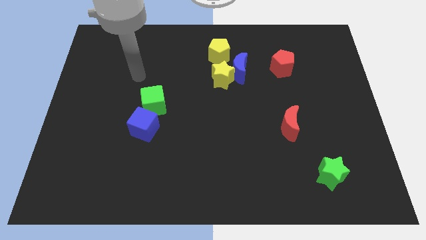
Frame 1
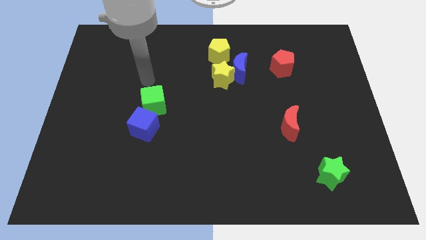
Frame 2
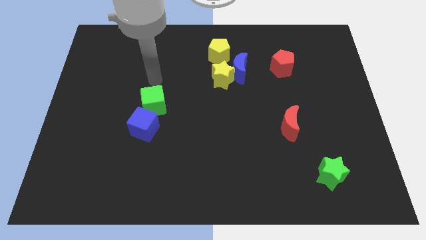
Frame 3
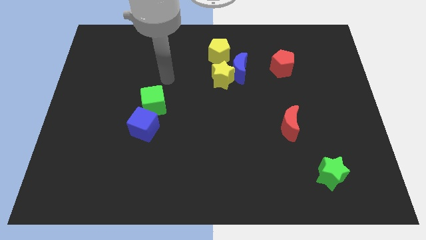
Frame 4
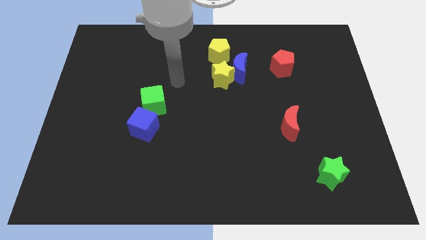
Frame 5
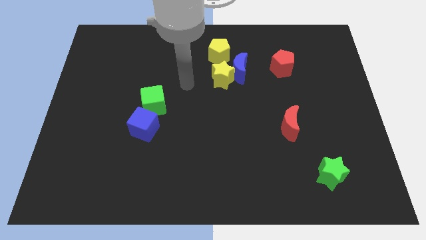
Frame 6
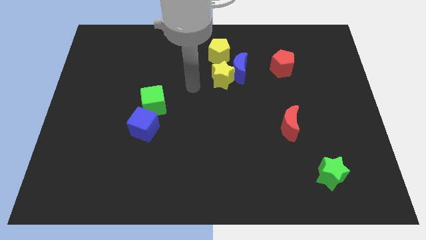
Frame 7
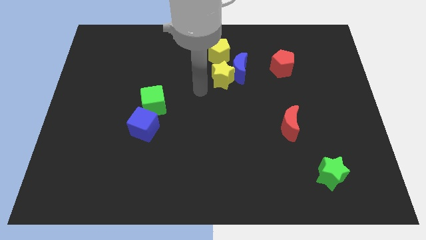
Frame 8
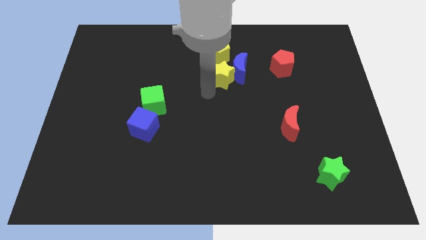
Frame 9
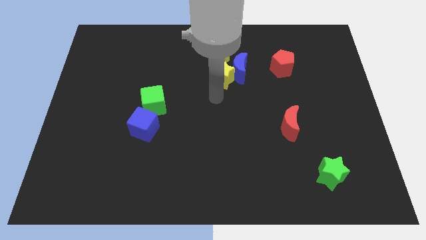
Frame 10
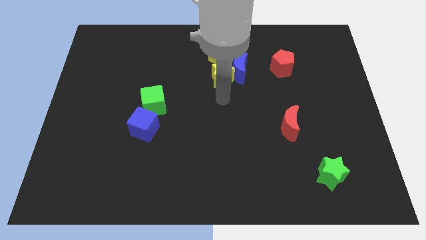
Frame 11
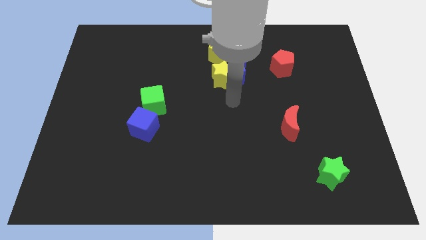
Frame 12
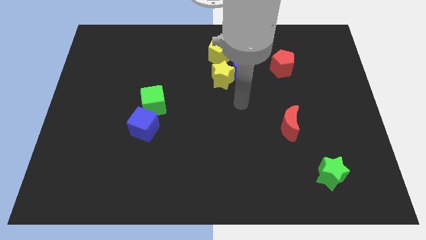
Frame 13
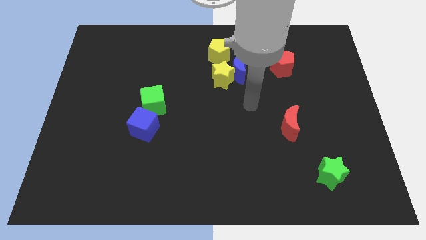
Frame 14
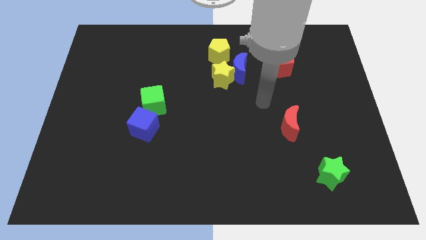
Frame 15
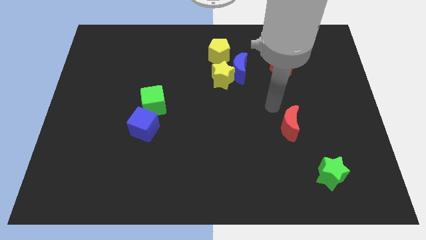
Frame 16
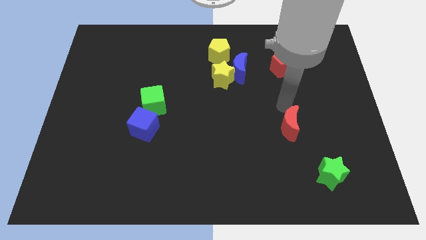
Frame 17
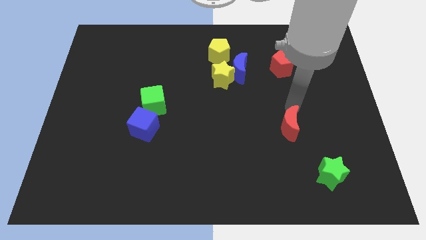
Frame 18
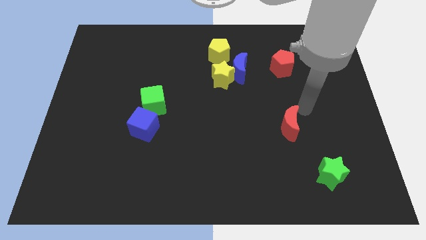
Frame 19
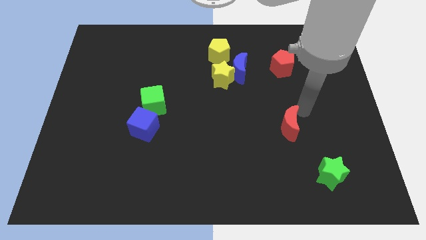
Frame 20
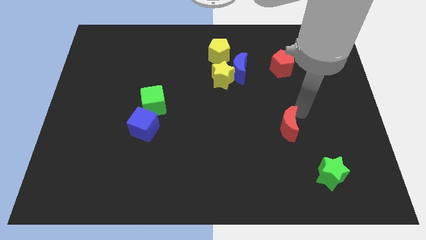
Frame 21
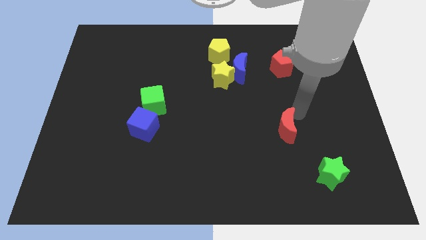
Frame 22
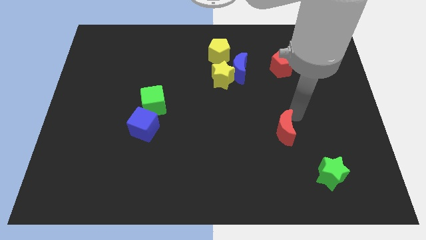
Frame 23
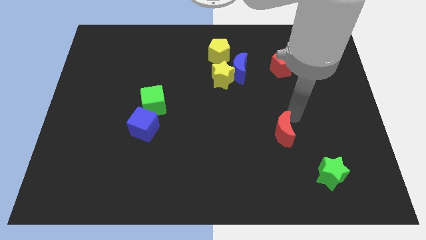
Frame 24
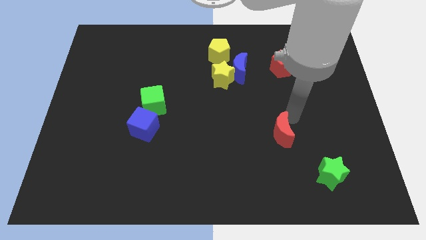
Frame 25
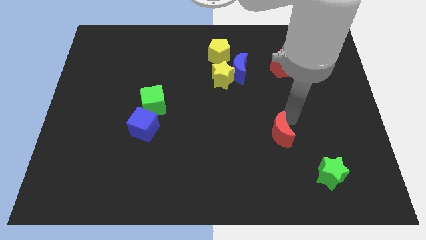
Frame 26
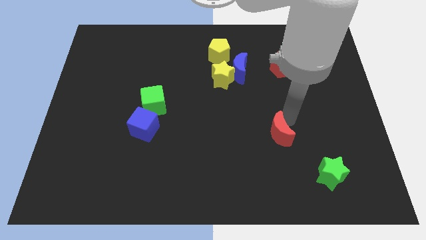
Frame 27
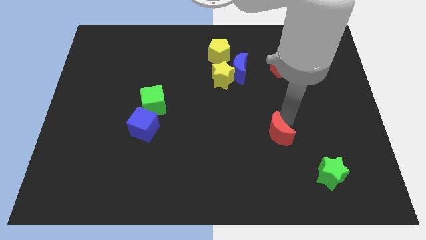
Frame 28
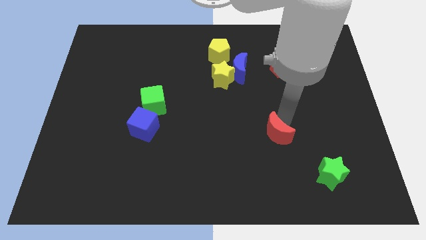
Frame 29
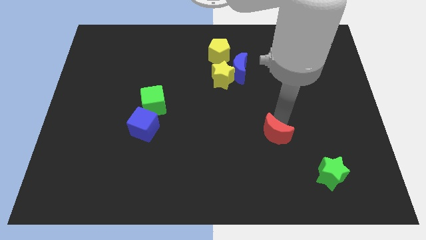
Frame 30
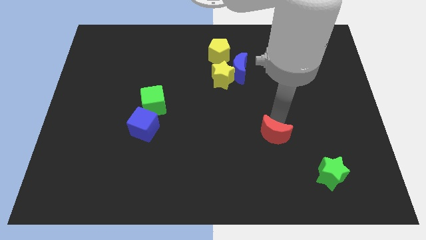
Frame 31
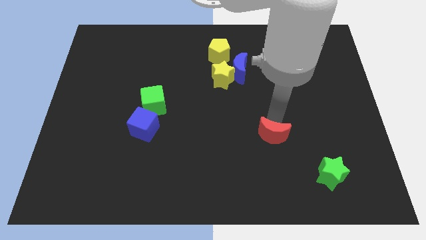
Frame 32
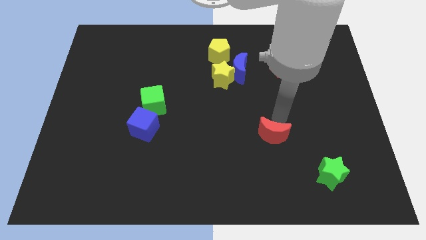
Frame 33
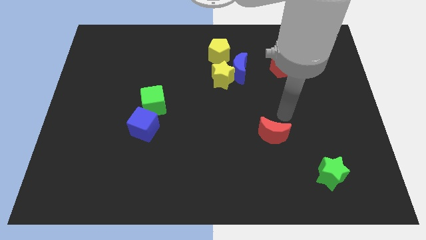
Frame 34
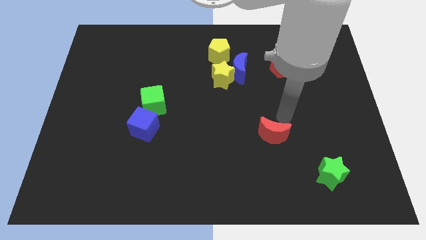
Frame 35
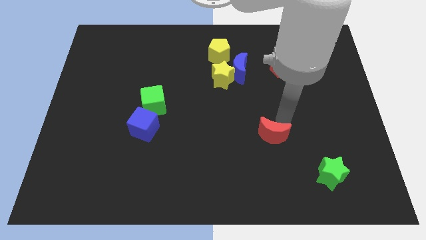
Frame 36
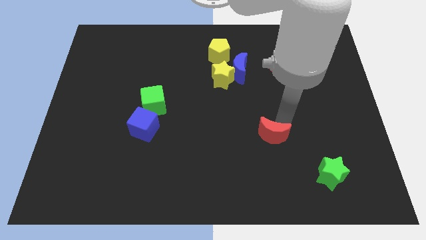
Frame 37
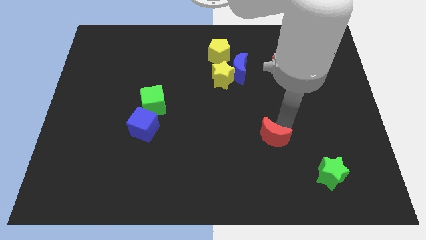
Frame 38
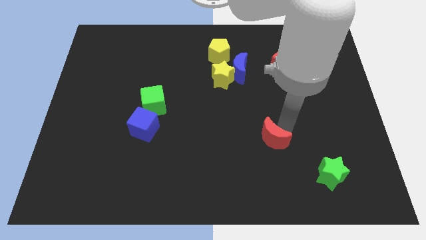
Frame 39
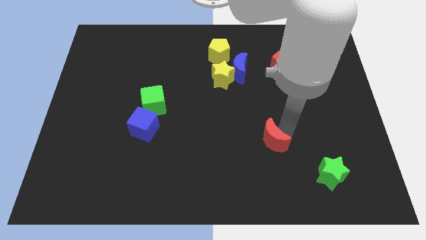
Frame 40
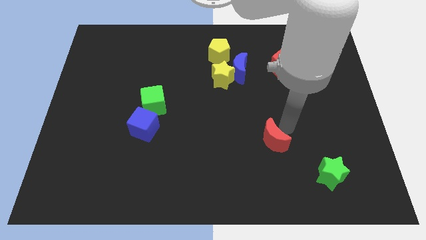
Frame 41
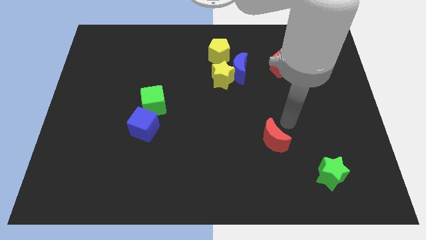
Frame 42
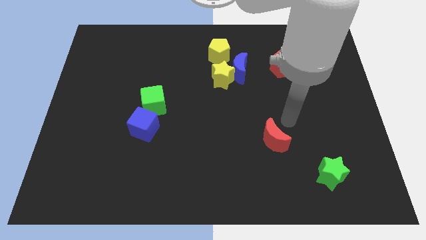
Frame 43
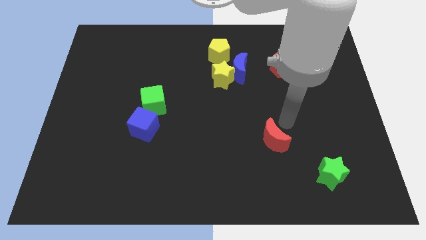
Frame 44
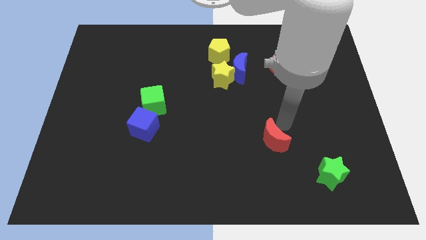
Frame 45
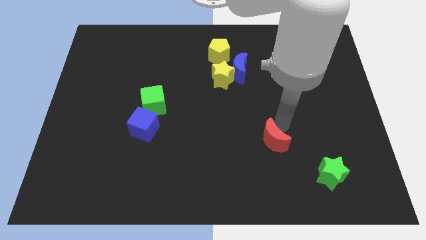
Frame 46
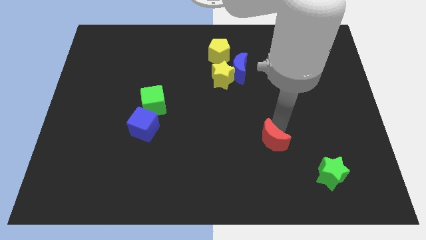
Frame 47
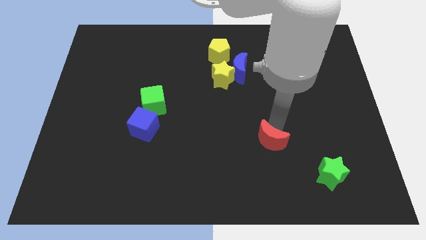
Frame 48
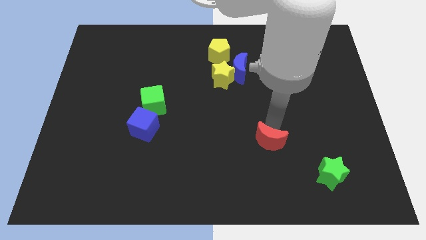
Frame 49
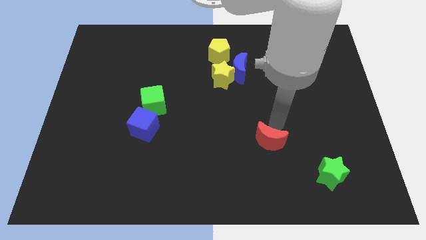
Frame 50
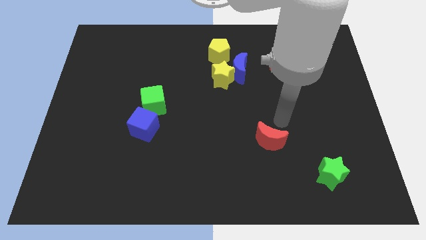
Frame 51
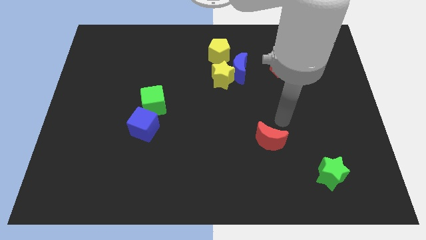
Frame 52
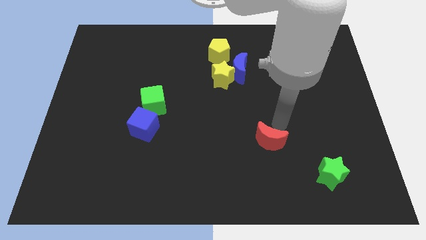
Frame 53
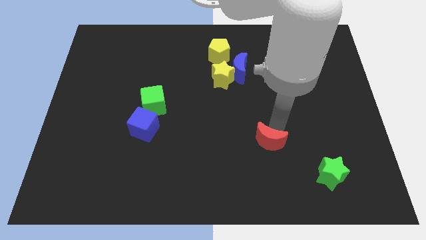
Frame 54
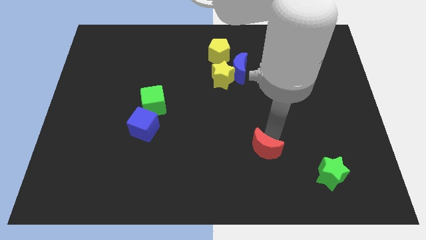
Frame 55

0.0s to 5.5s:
slide the red moon somewhat down and to the left diagonally

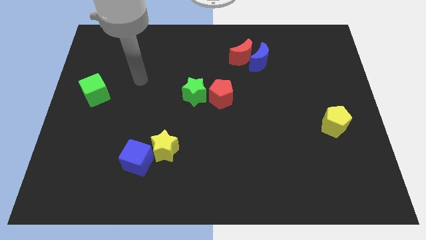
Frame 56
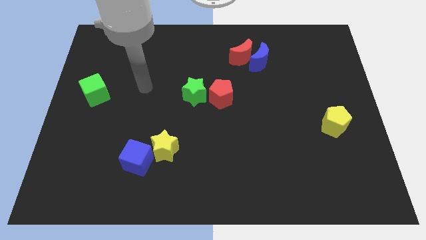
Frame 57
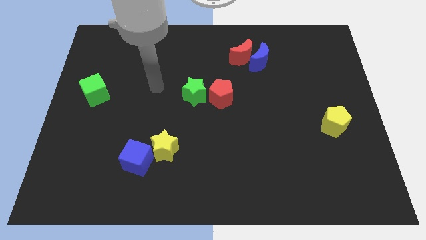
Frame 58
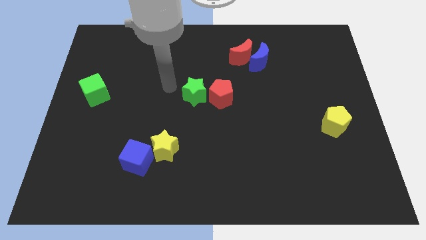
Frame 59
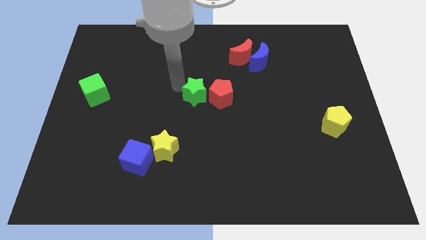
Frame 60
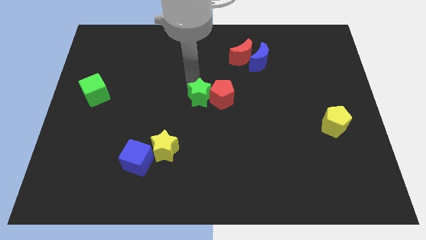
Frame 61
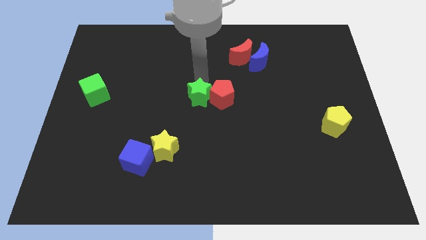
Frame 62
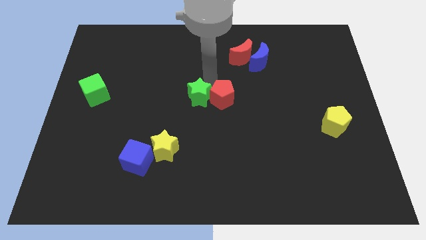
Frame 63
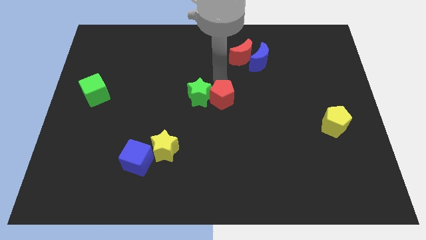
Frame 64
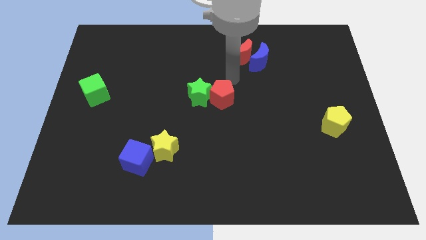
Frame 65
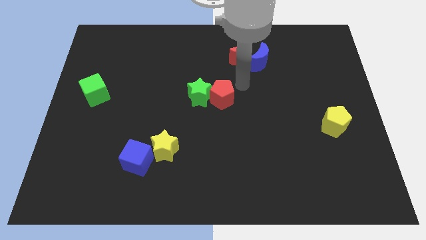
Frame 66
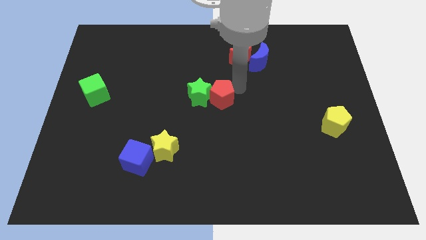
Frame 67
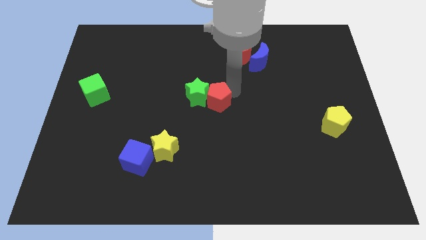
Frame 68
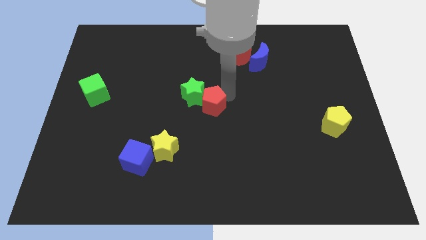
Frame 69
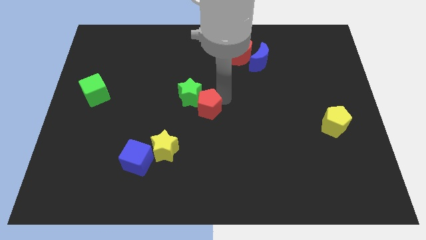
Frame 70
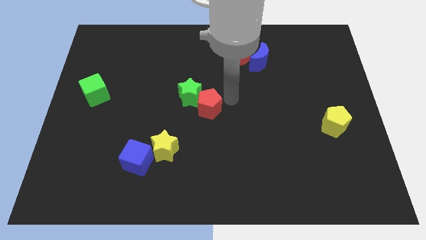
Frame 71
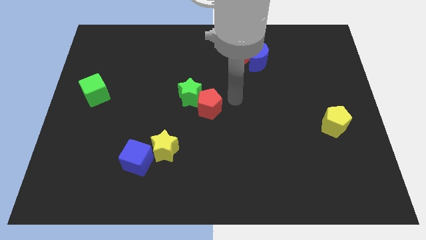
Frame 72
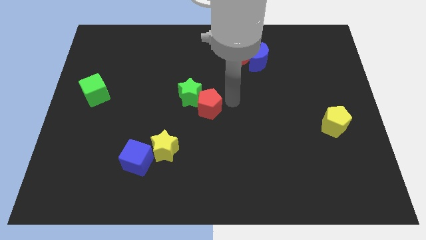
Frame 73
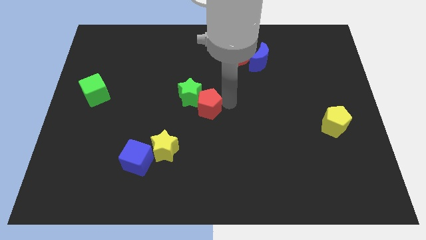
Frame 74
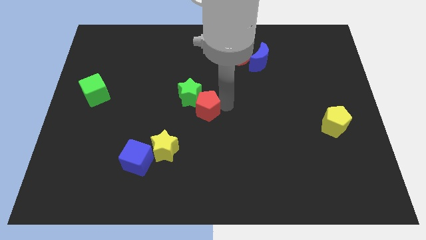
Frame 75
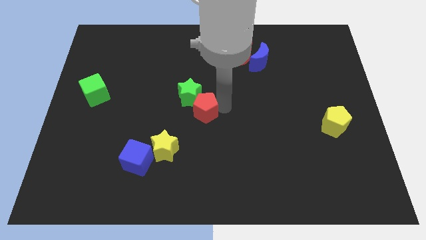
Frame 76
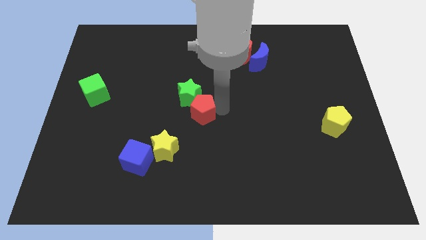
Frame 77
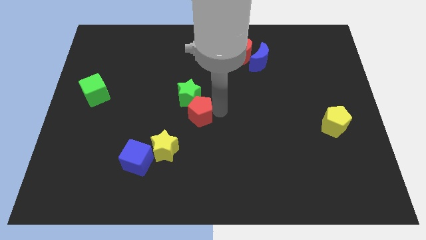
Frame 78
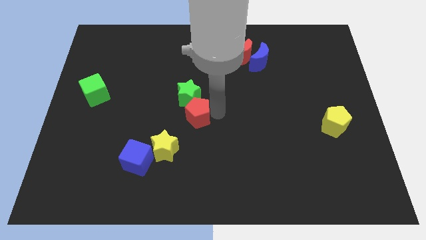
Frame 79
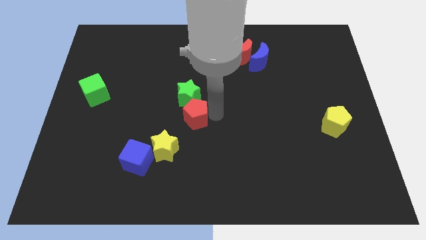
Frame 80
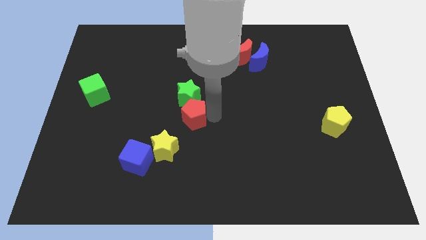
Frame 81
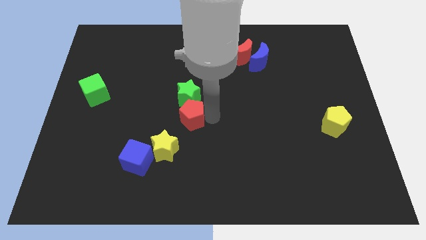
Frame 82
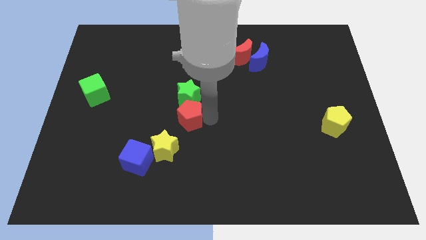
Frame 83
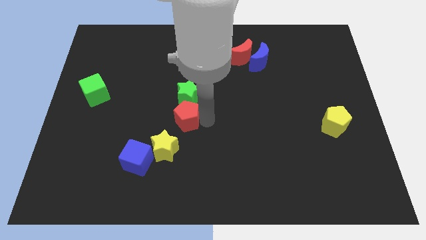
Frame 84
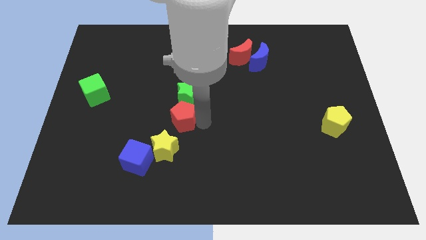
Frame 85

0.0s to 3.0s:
push the red pentagon a bit to the left
